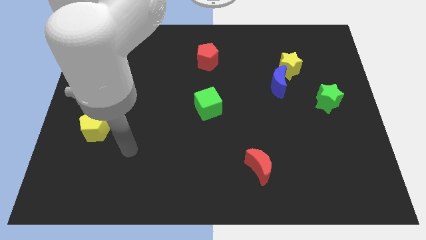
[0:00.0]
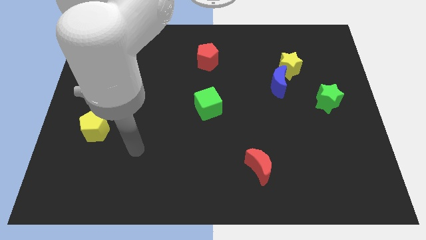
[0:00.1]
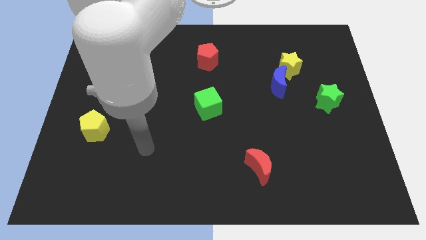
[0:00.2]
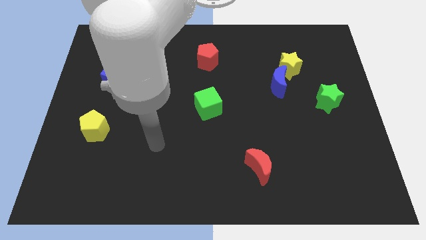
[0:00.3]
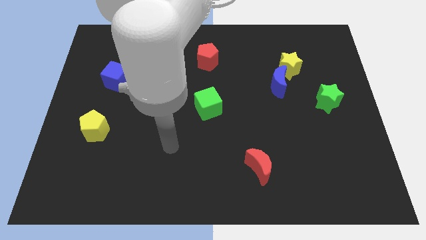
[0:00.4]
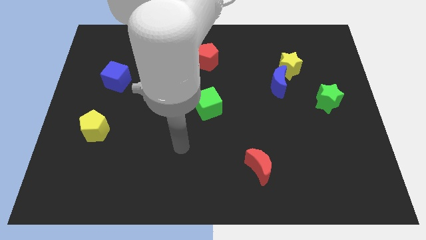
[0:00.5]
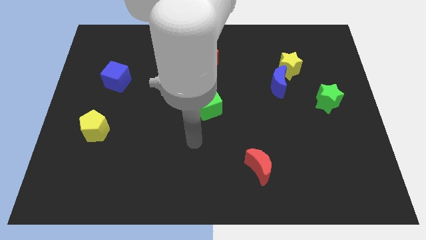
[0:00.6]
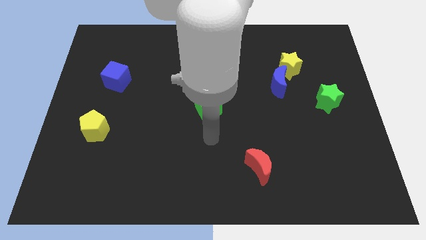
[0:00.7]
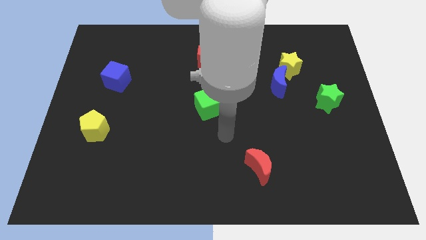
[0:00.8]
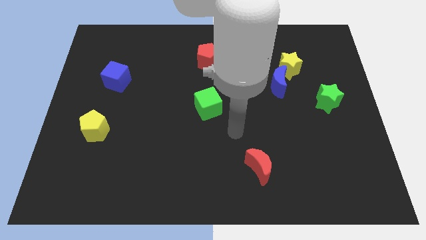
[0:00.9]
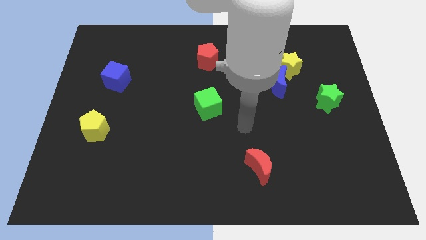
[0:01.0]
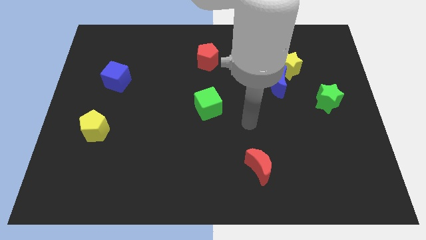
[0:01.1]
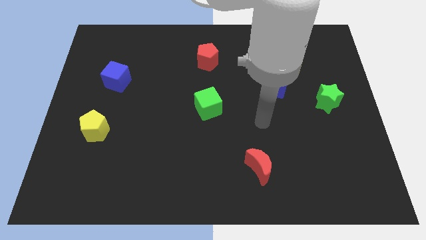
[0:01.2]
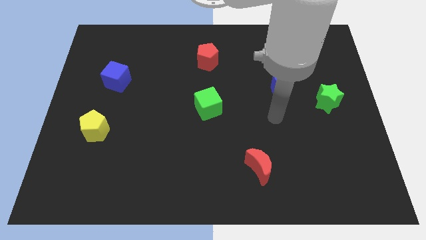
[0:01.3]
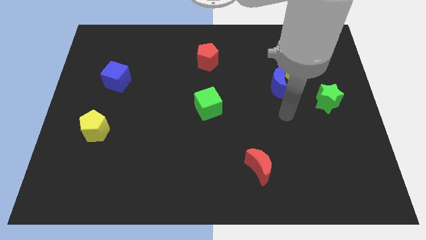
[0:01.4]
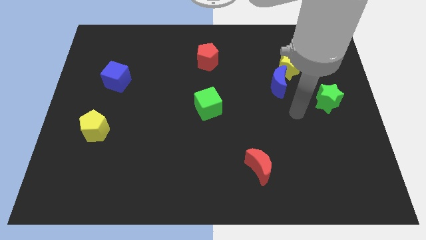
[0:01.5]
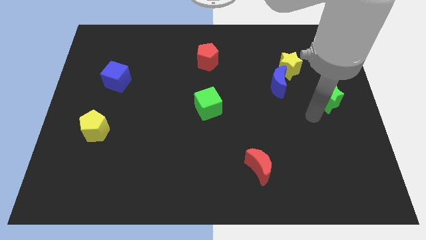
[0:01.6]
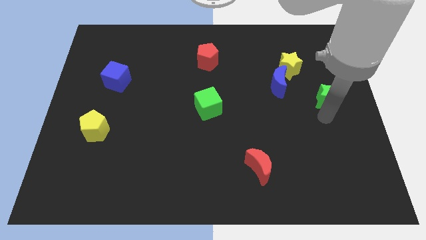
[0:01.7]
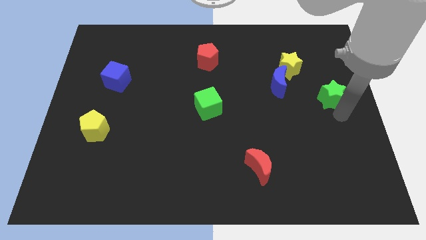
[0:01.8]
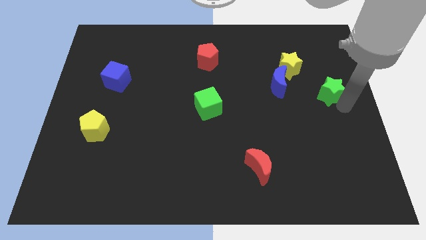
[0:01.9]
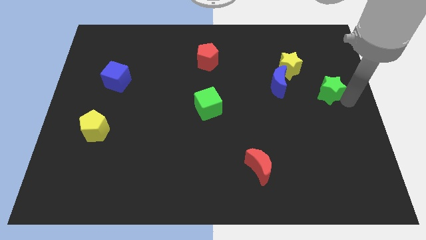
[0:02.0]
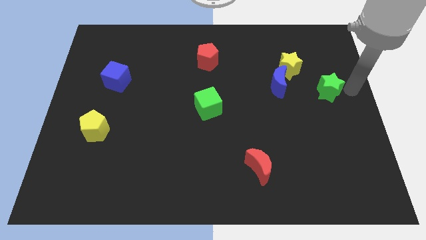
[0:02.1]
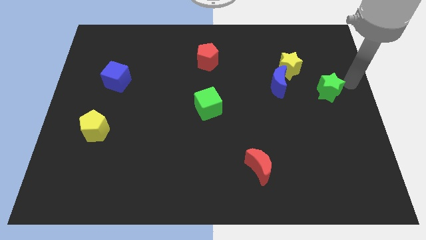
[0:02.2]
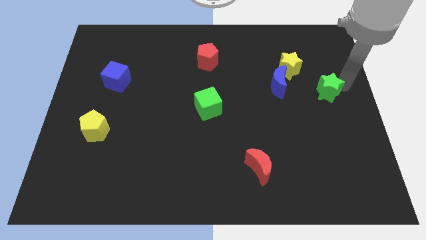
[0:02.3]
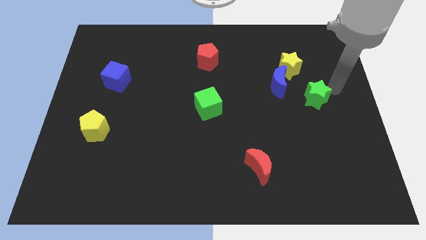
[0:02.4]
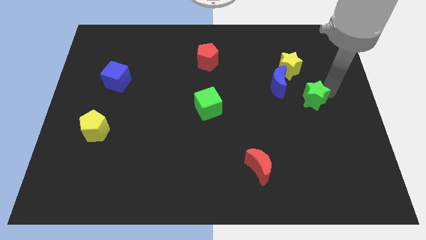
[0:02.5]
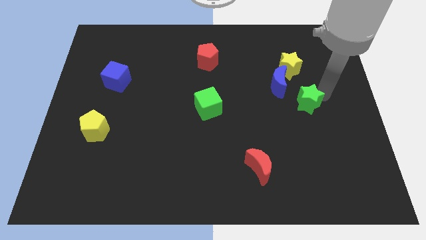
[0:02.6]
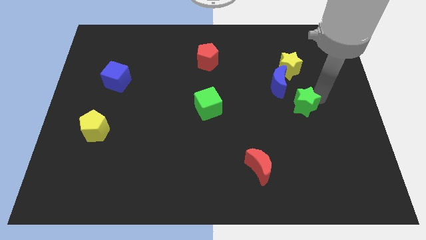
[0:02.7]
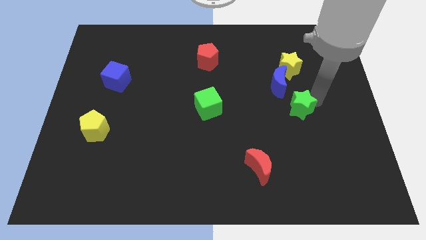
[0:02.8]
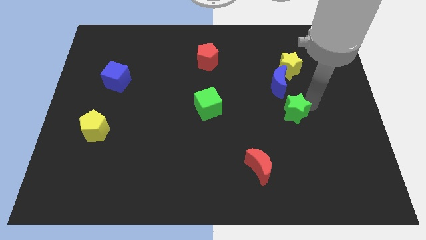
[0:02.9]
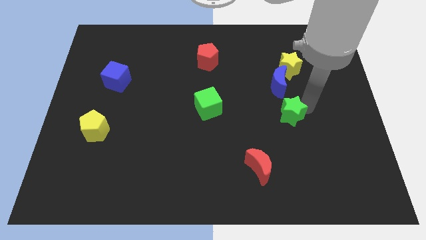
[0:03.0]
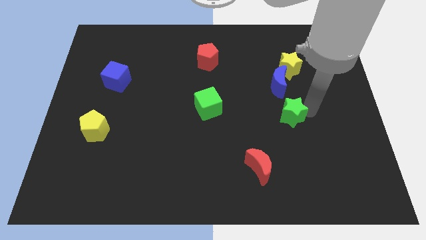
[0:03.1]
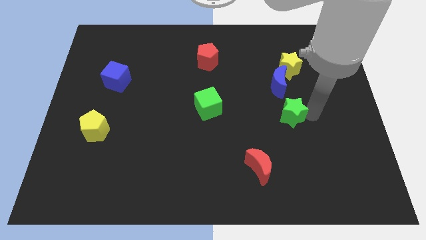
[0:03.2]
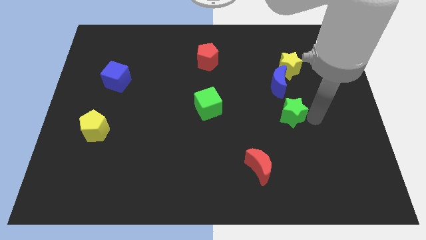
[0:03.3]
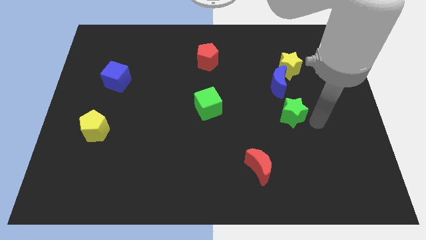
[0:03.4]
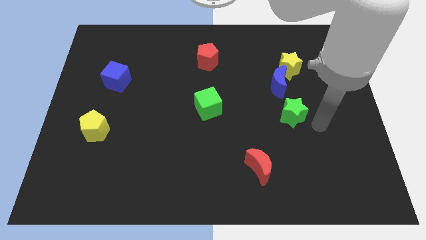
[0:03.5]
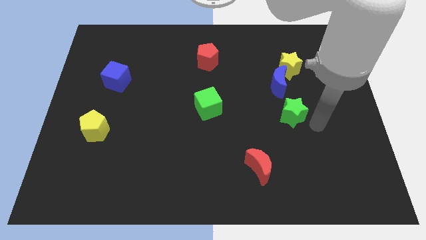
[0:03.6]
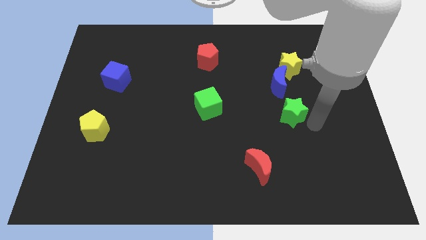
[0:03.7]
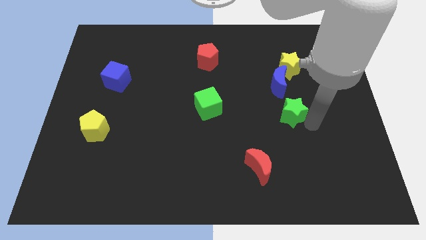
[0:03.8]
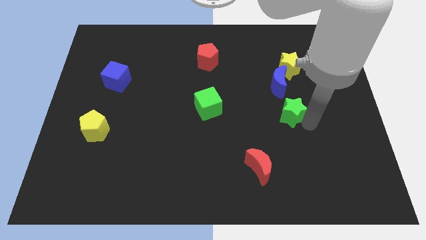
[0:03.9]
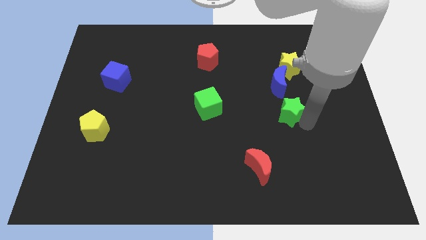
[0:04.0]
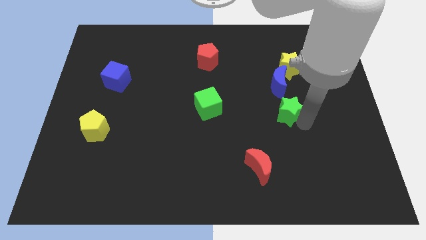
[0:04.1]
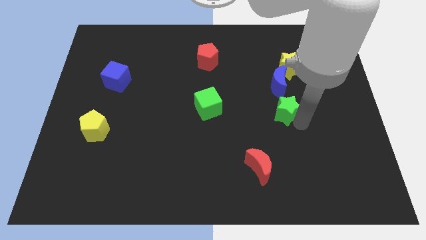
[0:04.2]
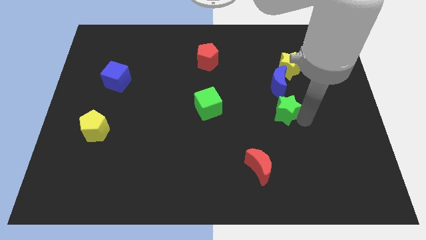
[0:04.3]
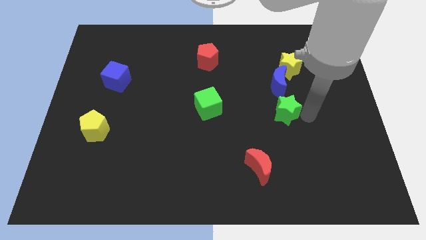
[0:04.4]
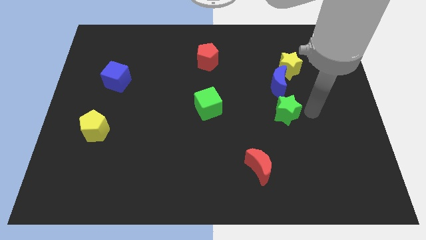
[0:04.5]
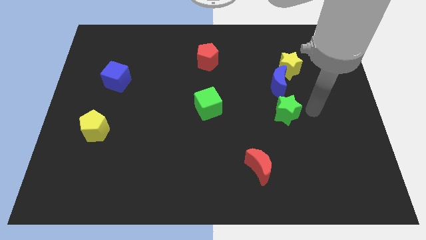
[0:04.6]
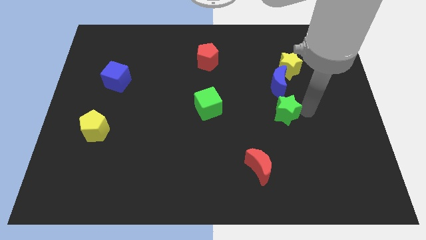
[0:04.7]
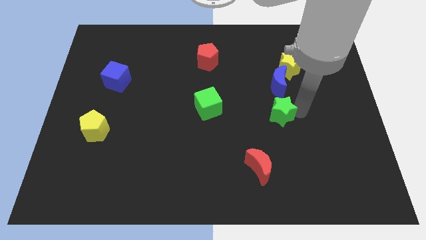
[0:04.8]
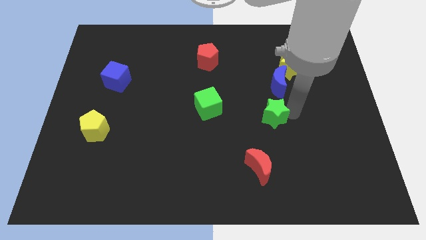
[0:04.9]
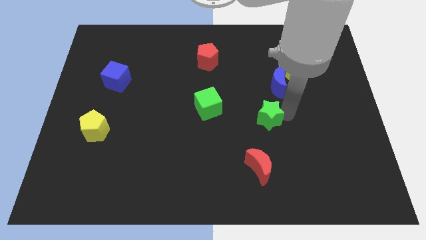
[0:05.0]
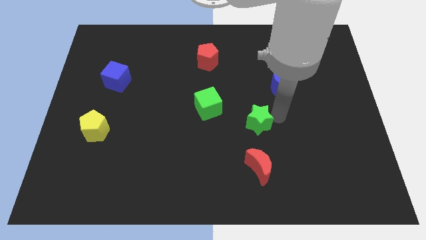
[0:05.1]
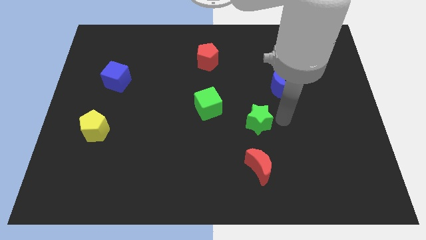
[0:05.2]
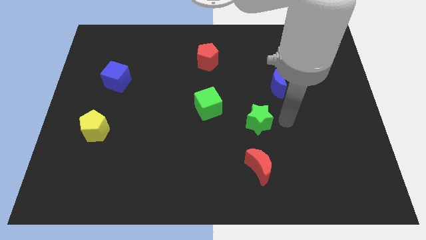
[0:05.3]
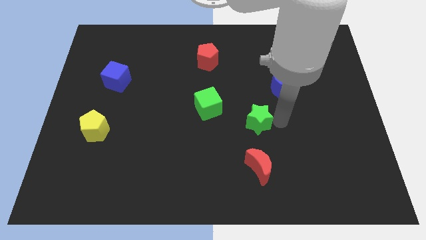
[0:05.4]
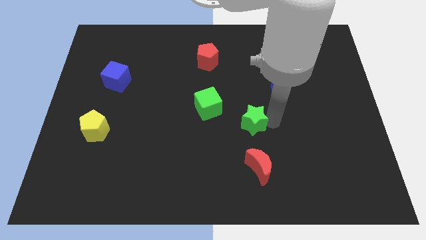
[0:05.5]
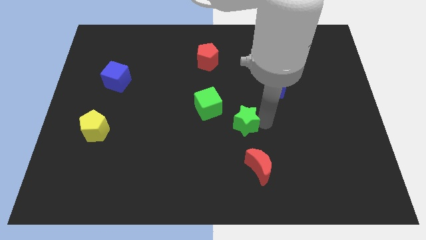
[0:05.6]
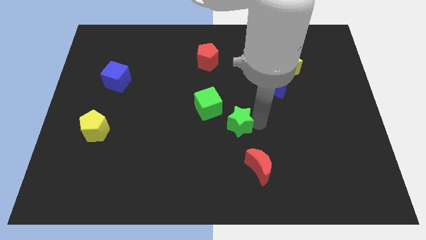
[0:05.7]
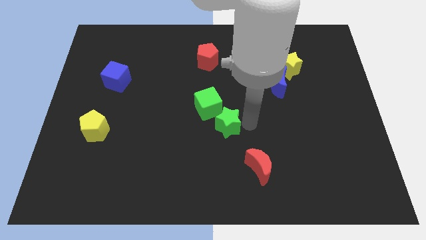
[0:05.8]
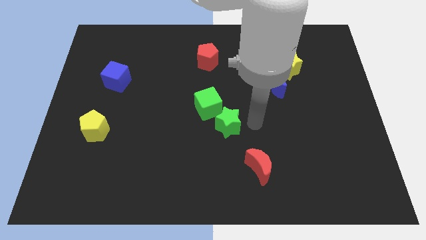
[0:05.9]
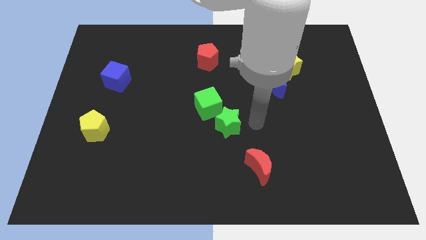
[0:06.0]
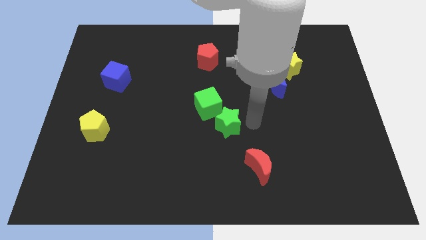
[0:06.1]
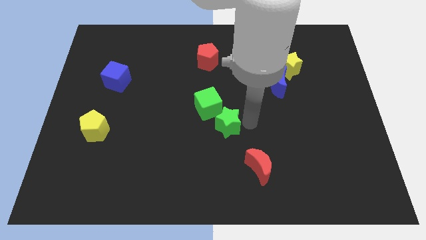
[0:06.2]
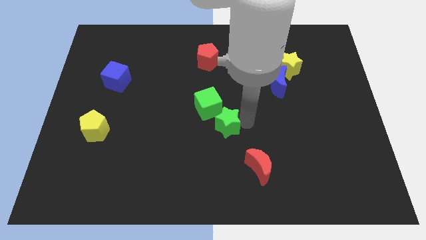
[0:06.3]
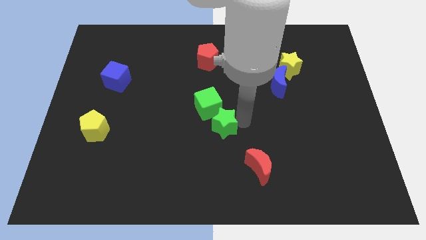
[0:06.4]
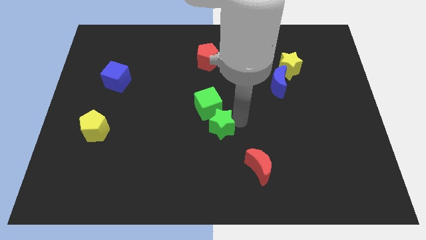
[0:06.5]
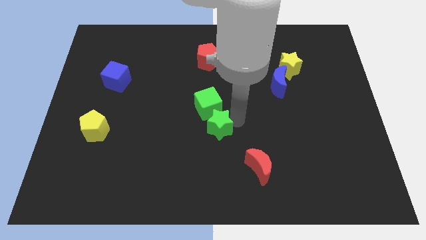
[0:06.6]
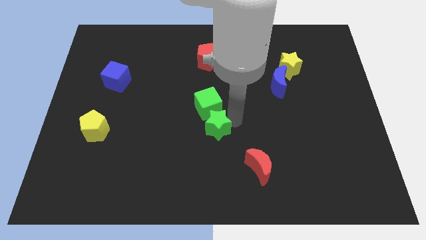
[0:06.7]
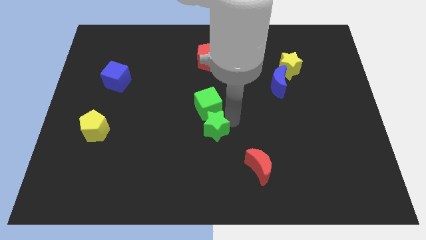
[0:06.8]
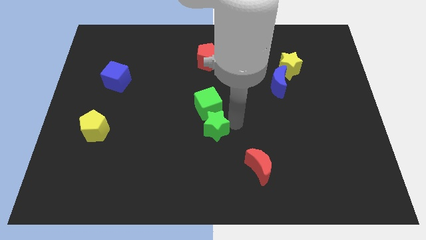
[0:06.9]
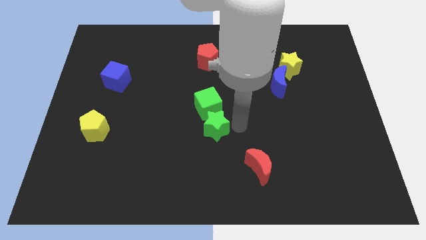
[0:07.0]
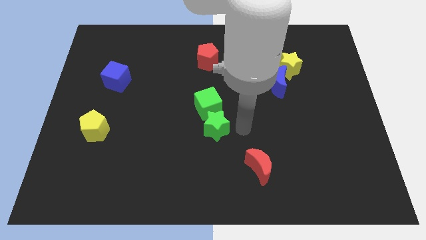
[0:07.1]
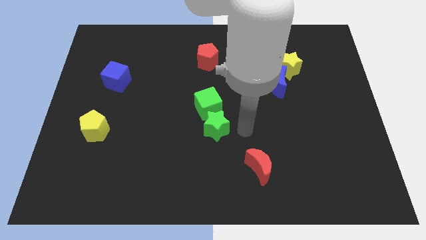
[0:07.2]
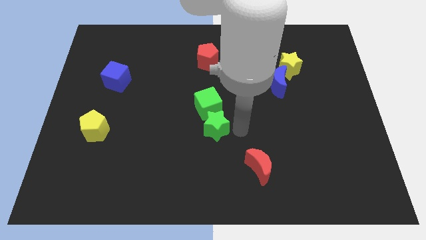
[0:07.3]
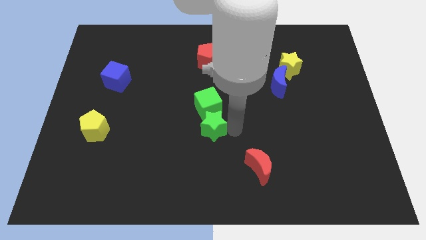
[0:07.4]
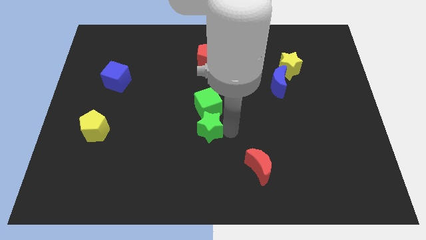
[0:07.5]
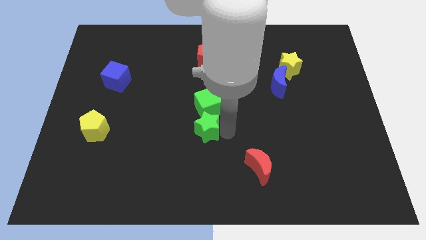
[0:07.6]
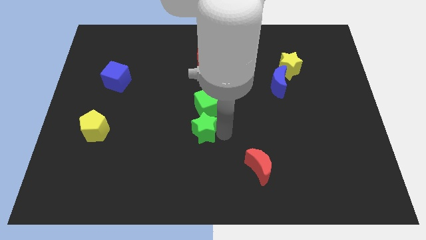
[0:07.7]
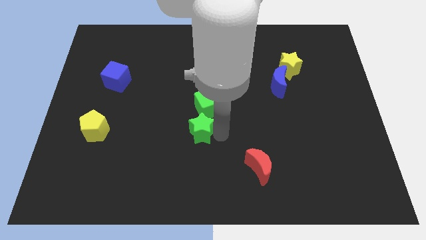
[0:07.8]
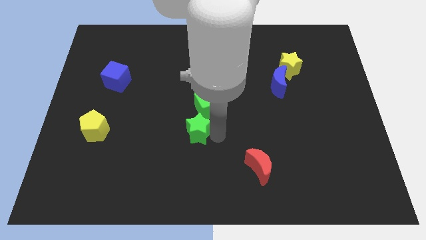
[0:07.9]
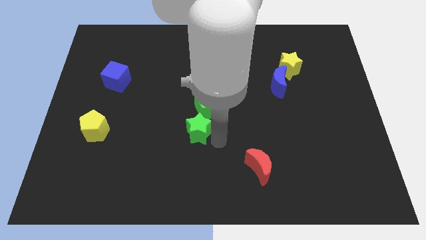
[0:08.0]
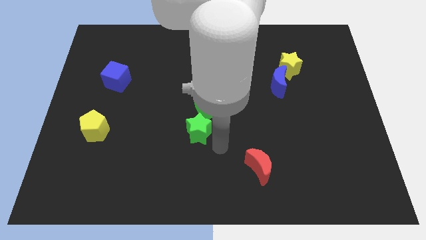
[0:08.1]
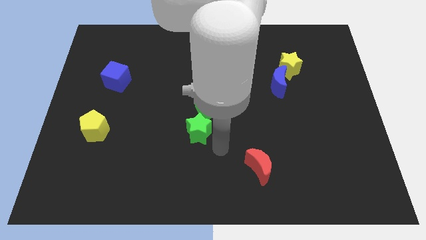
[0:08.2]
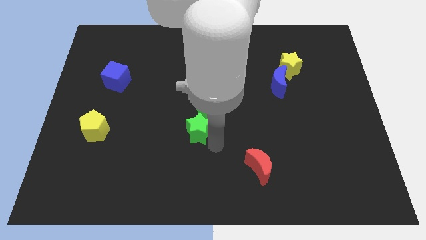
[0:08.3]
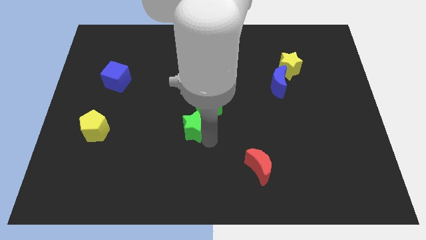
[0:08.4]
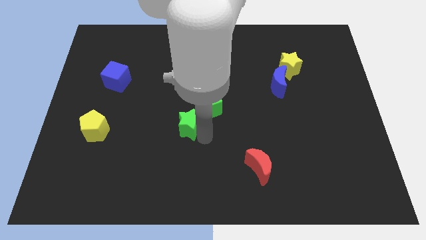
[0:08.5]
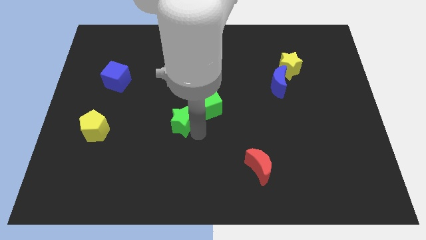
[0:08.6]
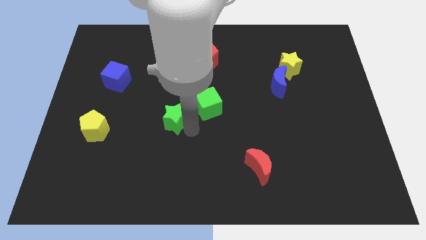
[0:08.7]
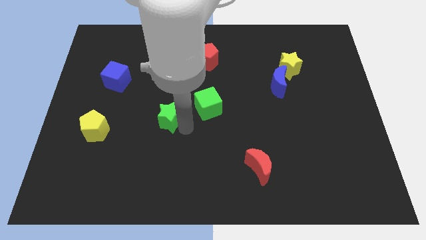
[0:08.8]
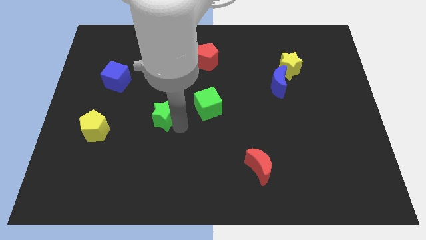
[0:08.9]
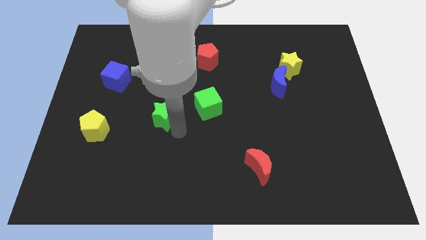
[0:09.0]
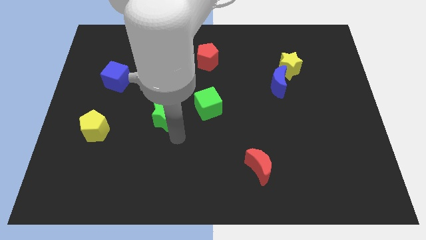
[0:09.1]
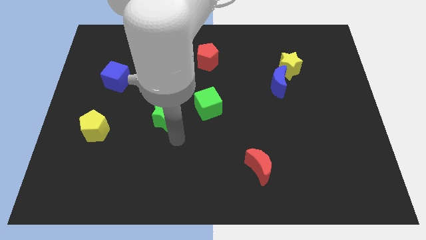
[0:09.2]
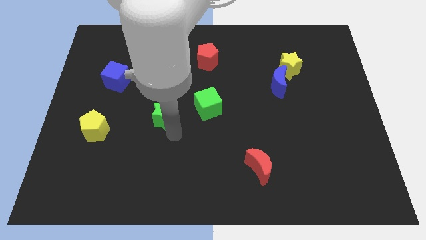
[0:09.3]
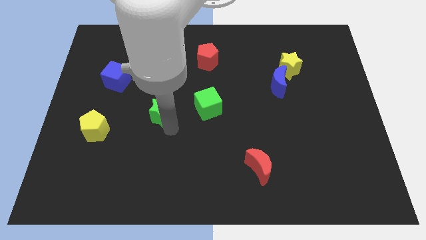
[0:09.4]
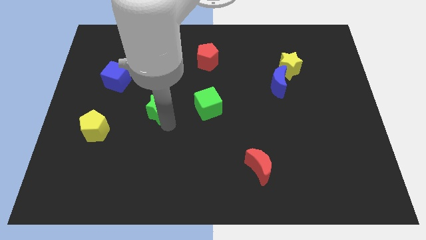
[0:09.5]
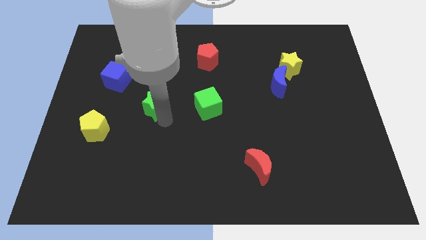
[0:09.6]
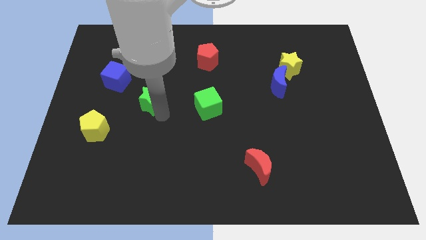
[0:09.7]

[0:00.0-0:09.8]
move the green star diagonally down and to the right of the blue cube
